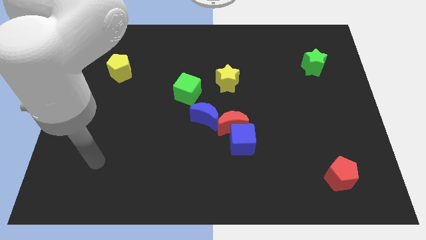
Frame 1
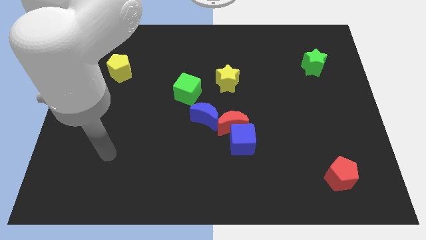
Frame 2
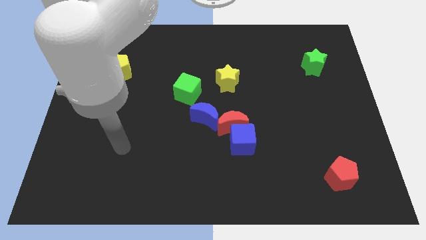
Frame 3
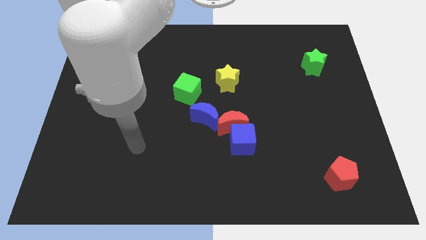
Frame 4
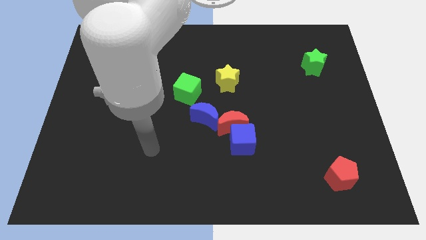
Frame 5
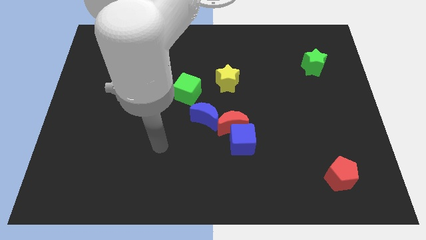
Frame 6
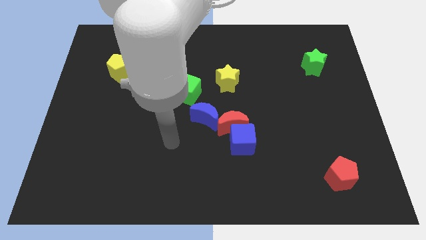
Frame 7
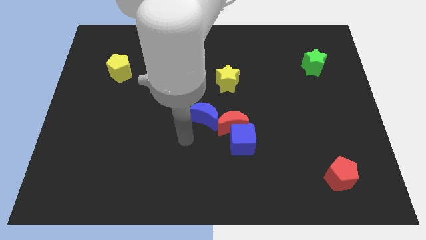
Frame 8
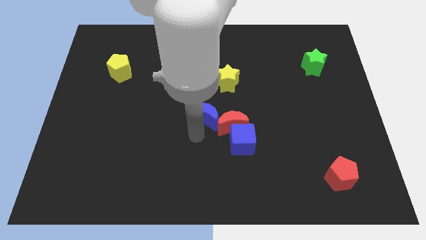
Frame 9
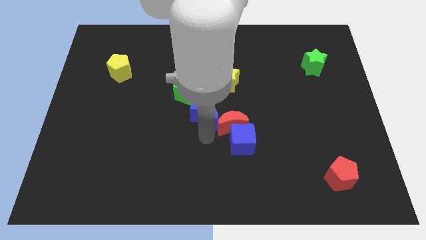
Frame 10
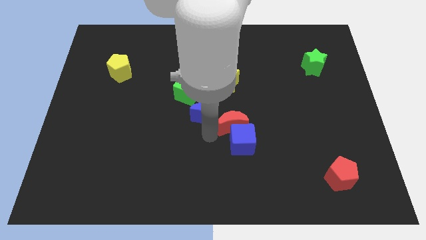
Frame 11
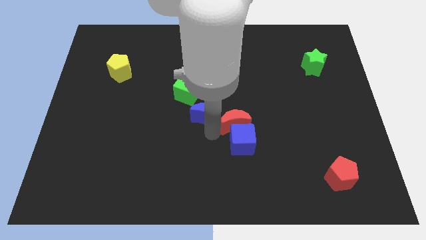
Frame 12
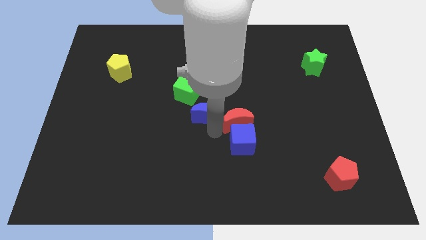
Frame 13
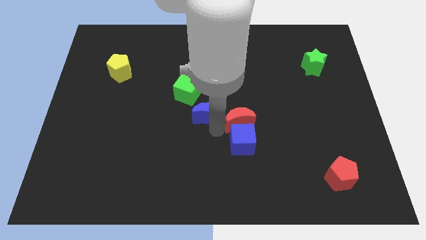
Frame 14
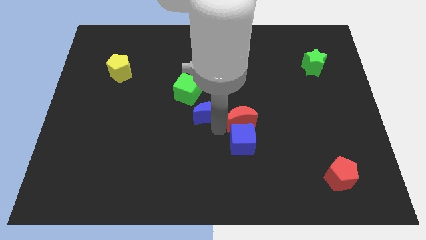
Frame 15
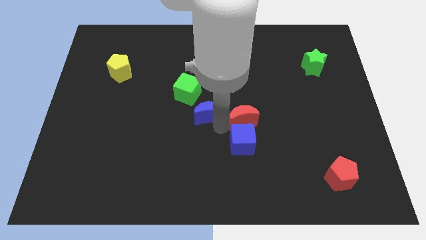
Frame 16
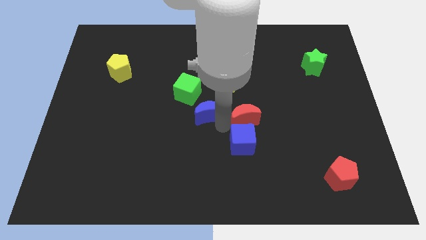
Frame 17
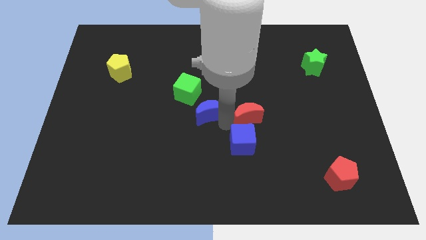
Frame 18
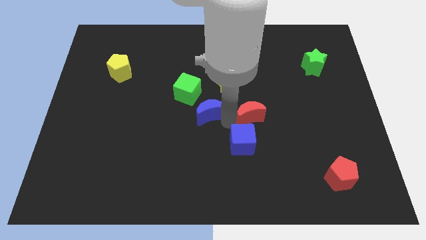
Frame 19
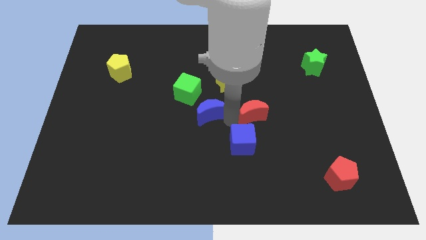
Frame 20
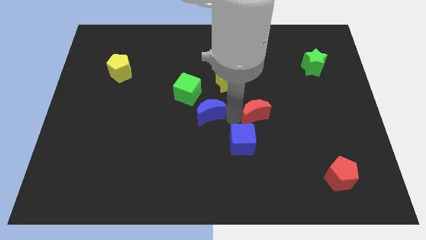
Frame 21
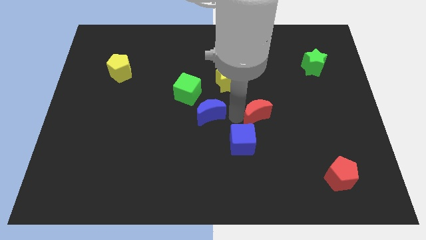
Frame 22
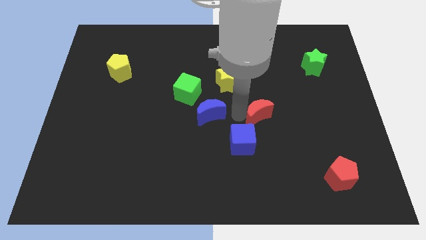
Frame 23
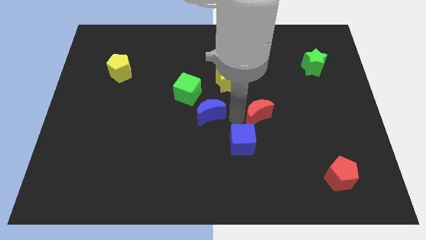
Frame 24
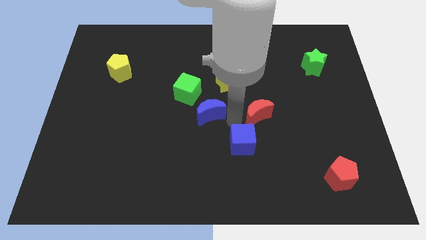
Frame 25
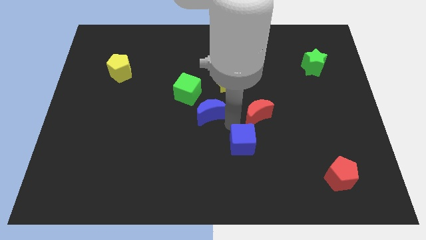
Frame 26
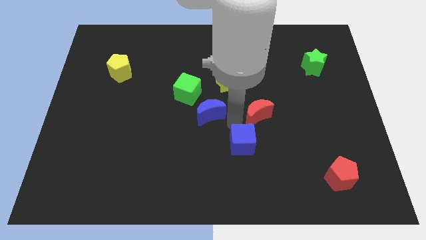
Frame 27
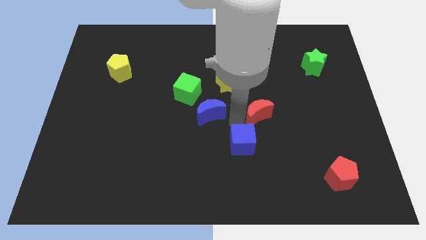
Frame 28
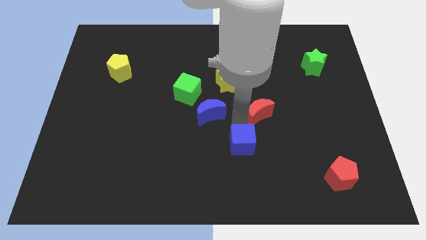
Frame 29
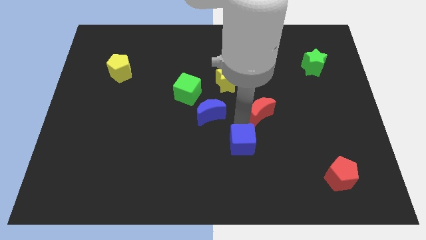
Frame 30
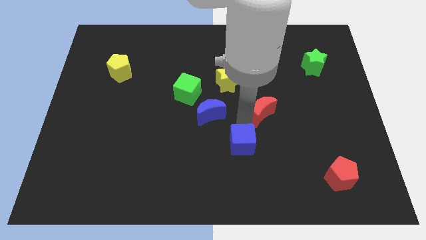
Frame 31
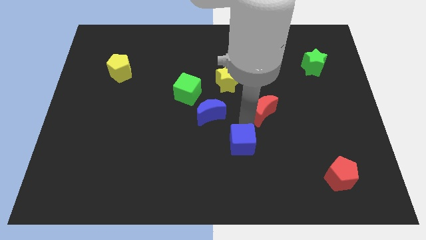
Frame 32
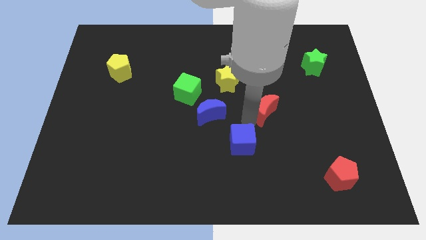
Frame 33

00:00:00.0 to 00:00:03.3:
separate the red moon from the blue cube and blue moon

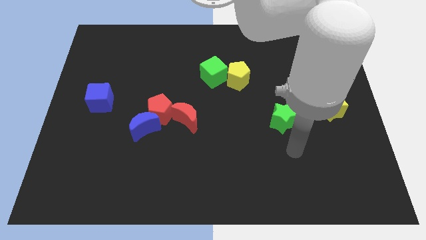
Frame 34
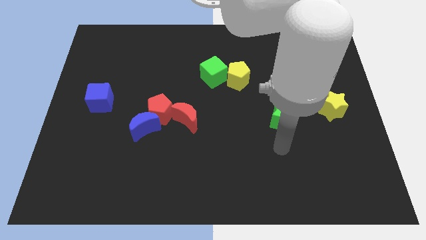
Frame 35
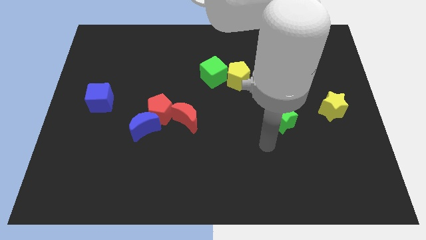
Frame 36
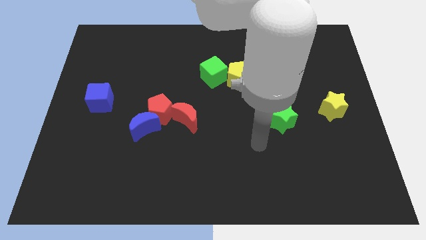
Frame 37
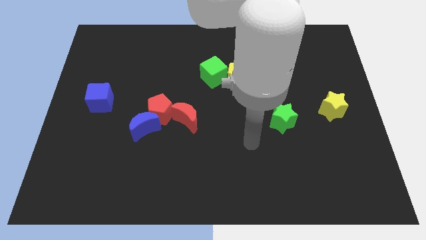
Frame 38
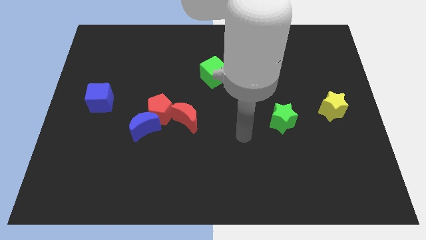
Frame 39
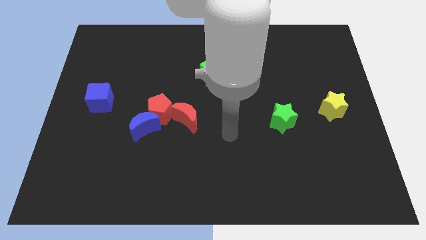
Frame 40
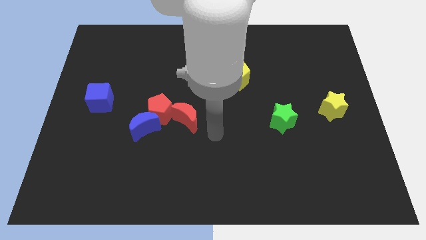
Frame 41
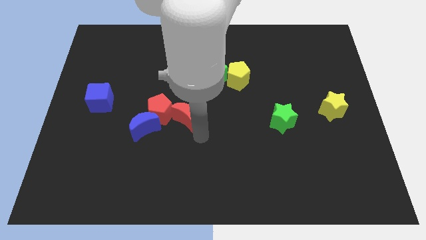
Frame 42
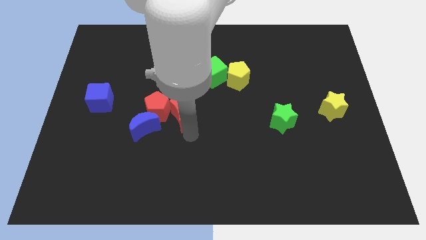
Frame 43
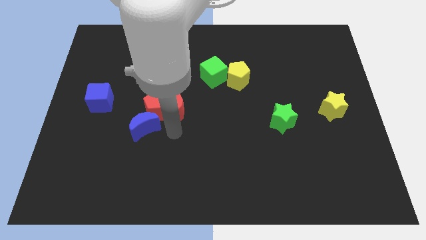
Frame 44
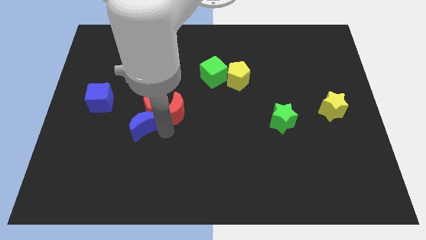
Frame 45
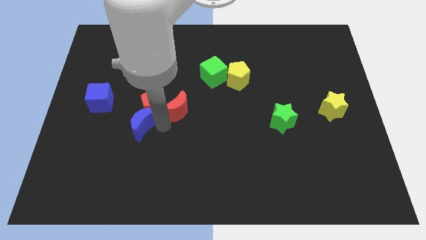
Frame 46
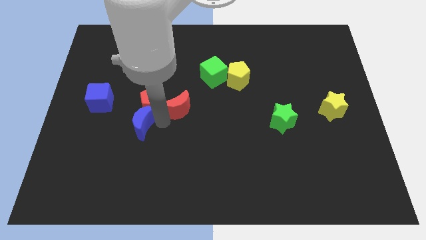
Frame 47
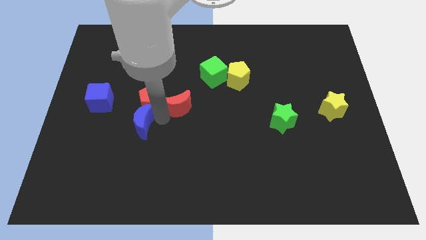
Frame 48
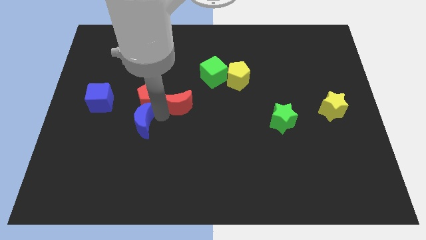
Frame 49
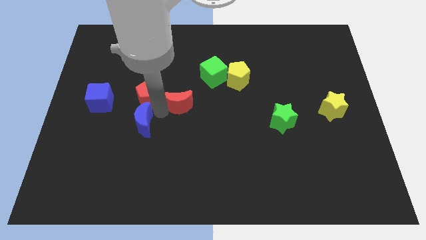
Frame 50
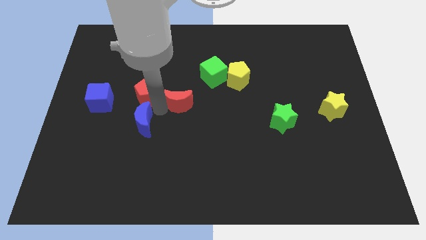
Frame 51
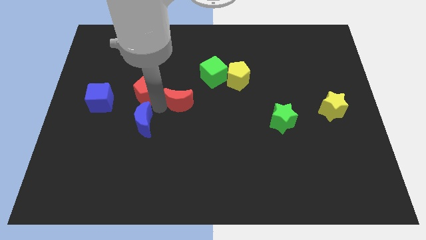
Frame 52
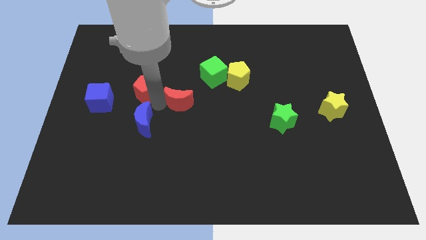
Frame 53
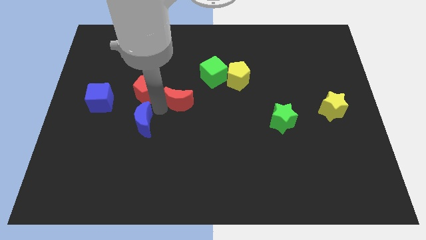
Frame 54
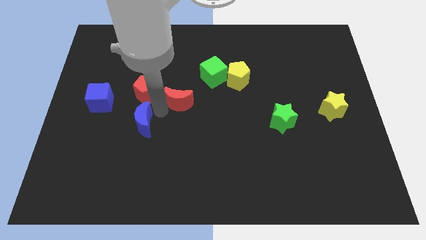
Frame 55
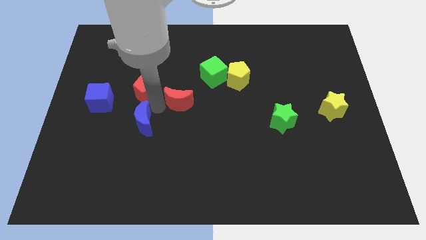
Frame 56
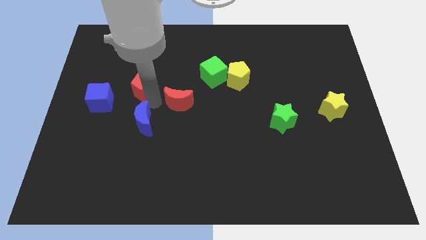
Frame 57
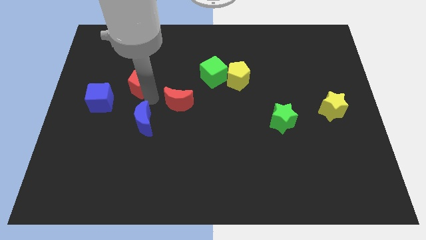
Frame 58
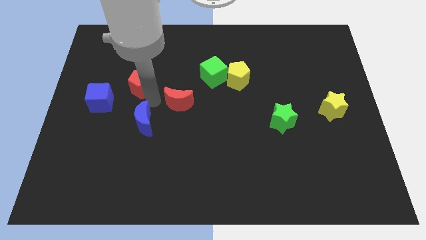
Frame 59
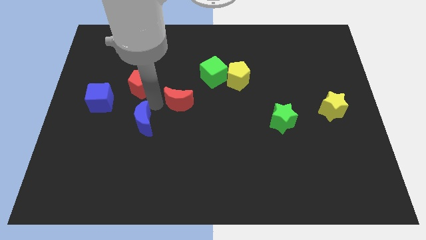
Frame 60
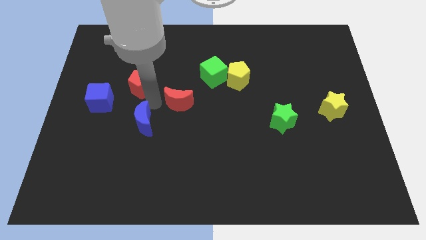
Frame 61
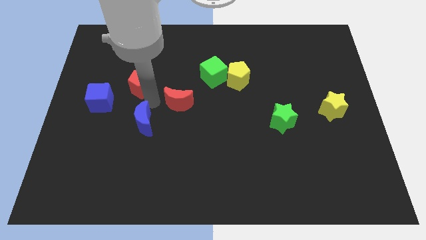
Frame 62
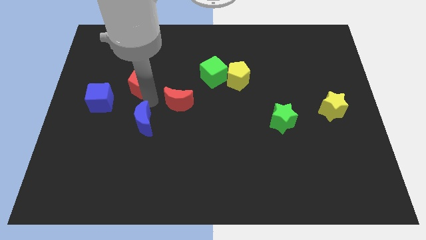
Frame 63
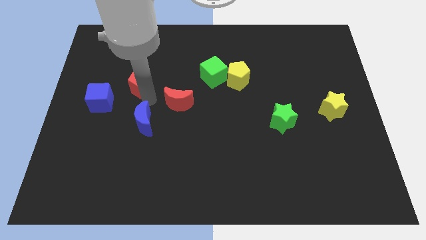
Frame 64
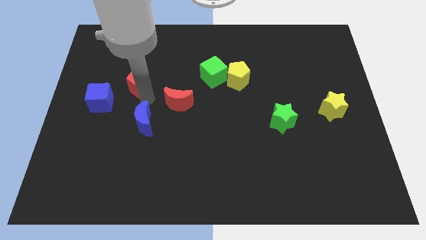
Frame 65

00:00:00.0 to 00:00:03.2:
pull the red pentagon apart from the blue moon and red moon

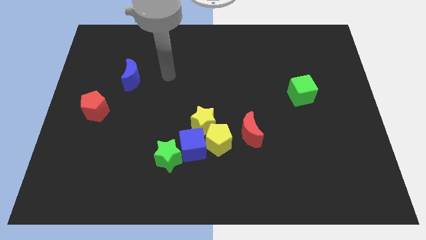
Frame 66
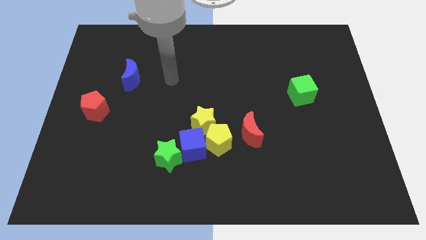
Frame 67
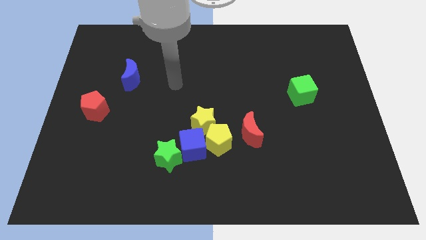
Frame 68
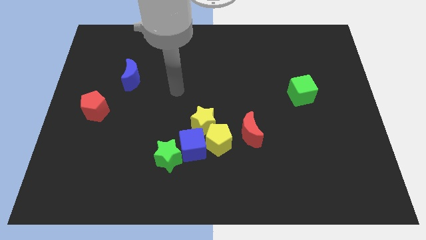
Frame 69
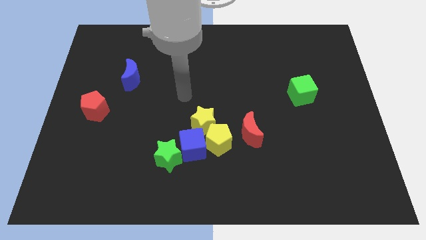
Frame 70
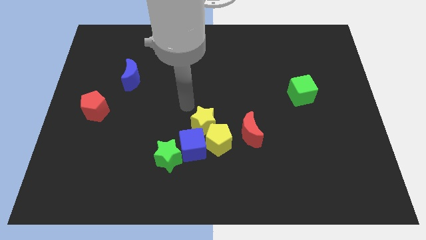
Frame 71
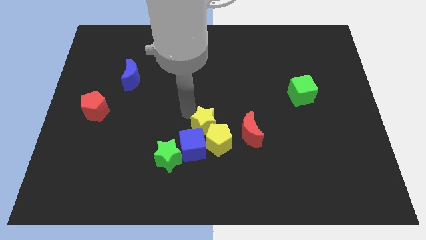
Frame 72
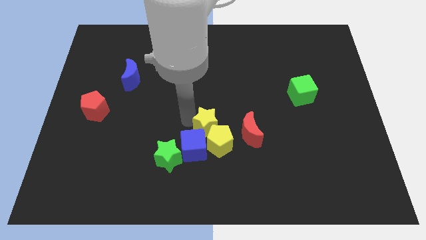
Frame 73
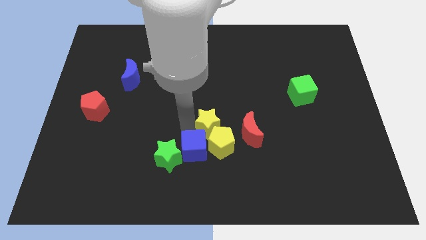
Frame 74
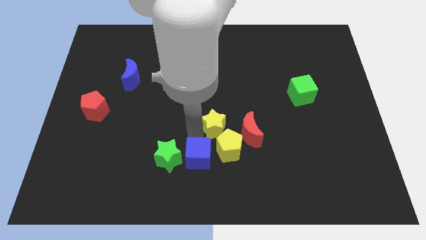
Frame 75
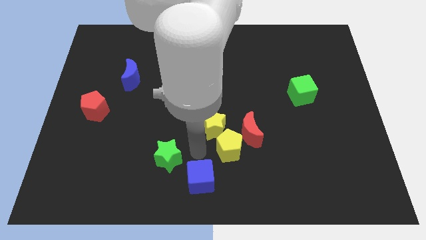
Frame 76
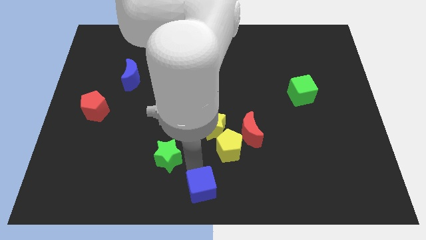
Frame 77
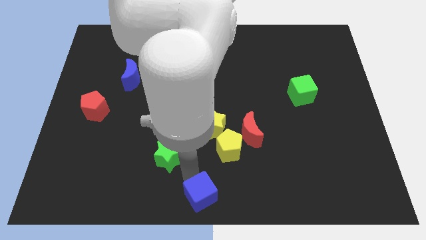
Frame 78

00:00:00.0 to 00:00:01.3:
pull the green star apart from the blue cube

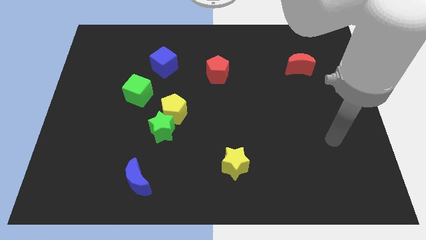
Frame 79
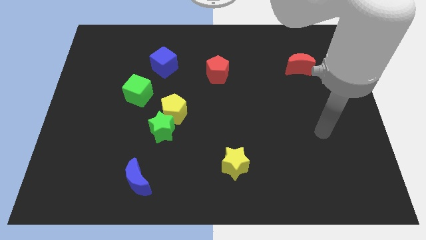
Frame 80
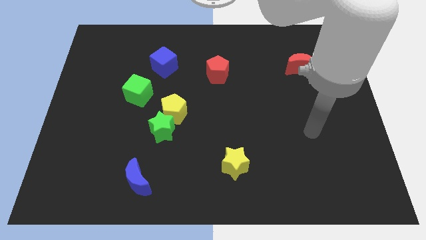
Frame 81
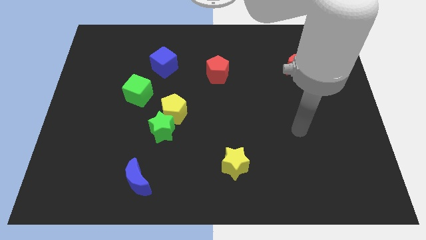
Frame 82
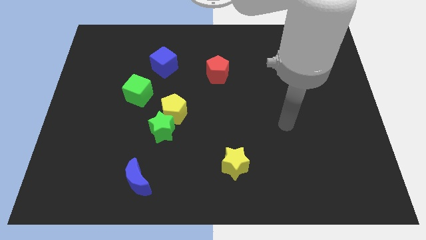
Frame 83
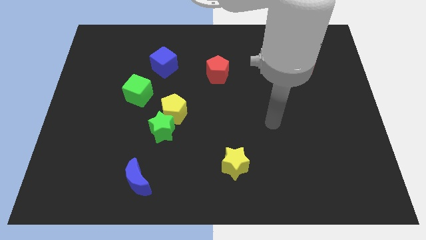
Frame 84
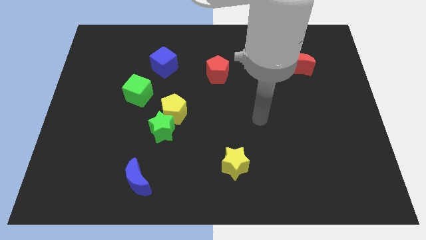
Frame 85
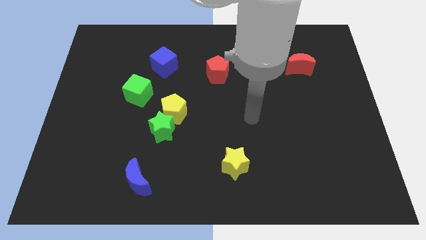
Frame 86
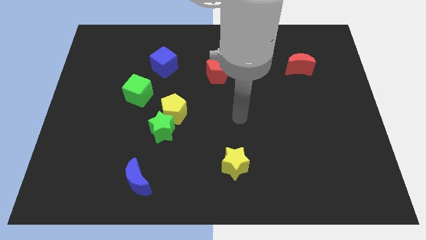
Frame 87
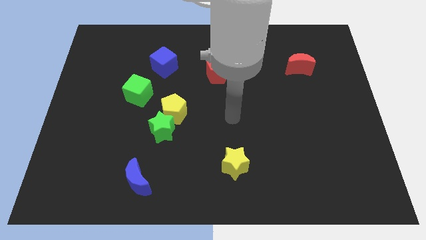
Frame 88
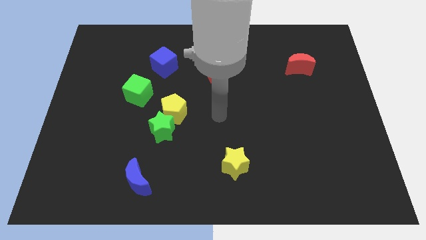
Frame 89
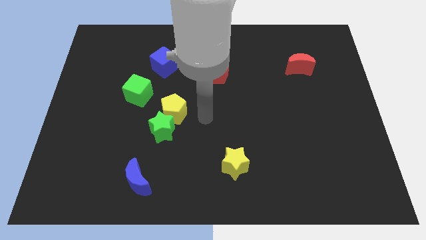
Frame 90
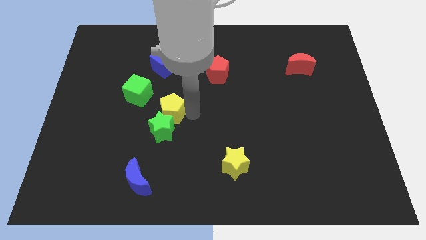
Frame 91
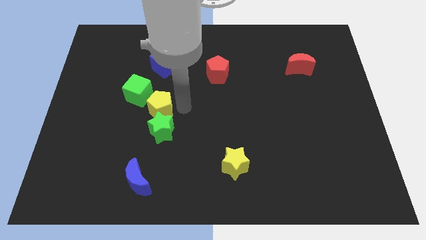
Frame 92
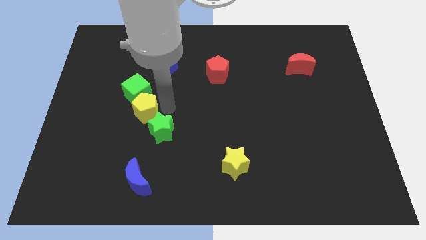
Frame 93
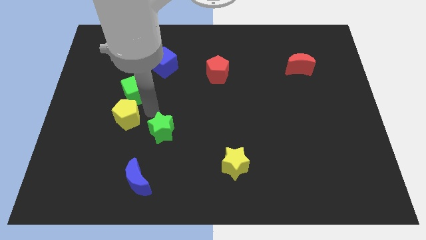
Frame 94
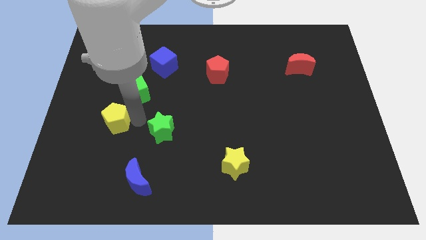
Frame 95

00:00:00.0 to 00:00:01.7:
separate the green star from the yellow pentagon
